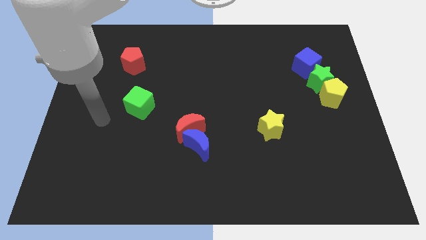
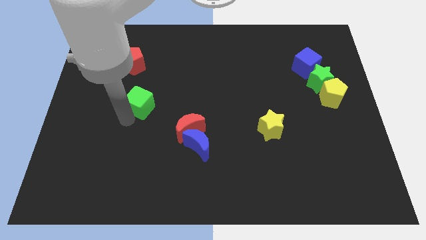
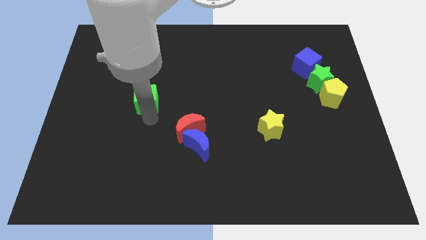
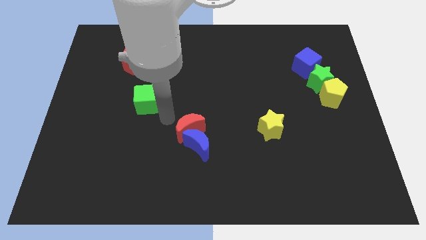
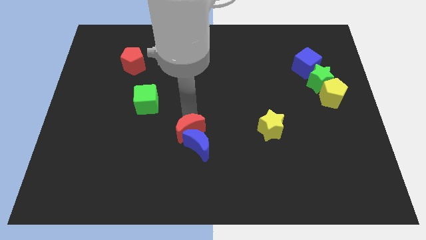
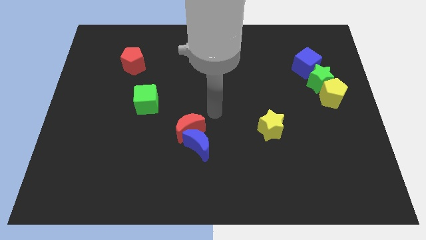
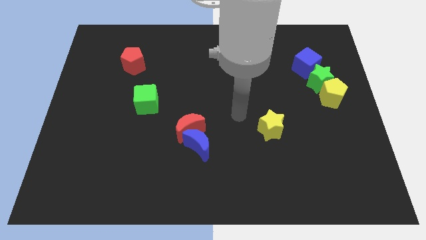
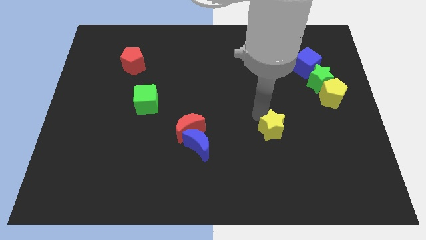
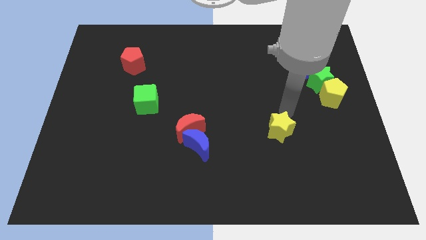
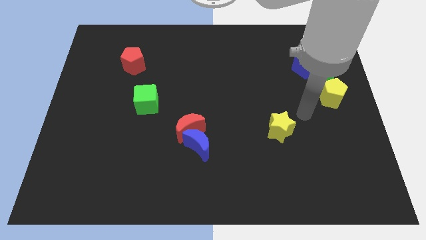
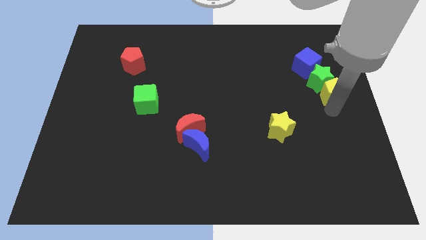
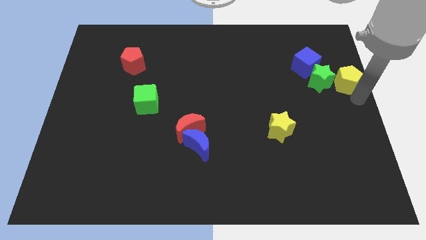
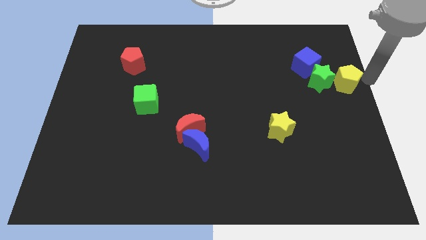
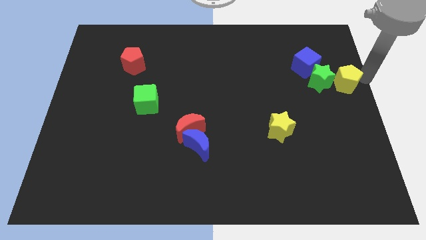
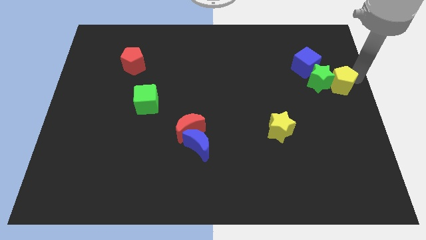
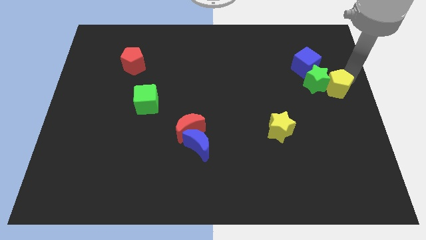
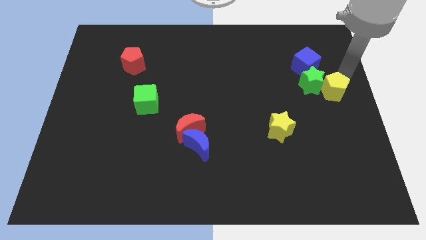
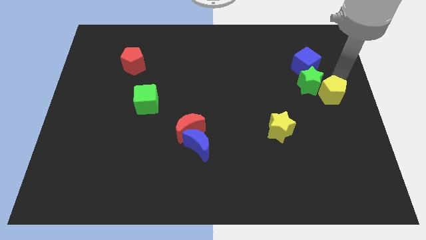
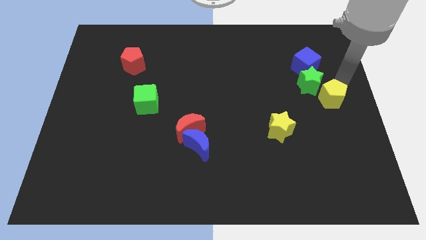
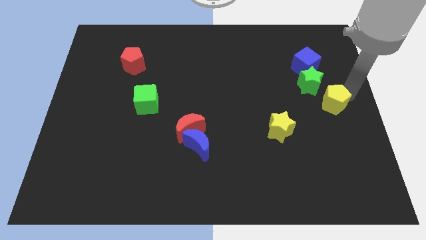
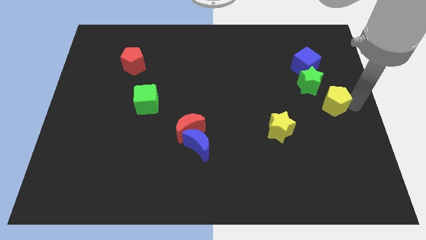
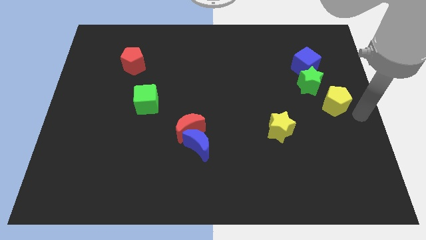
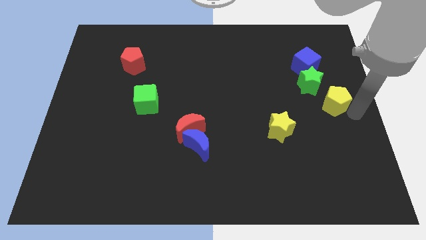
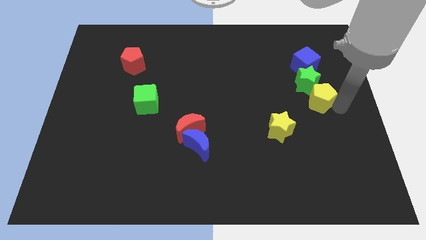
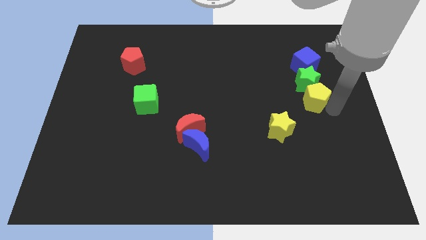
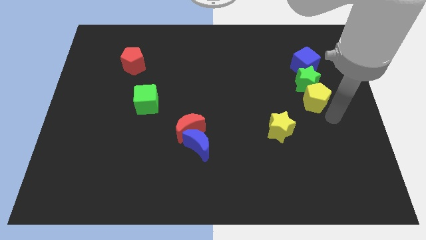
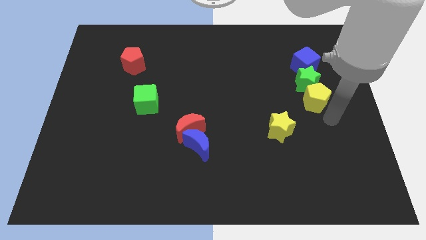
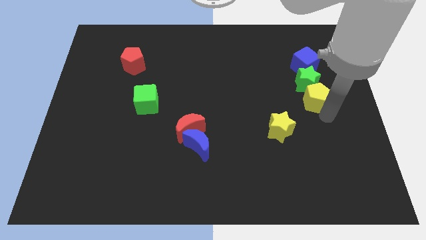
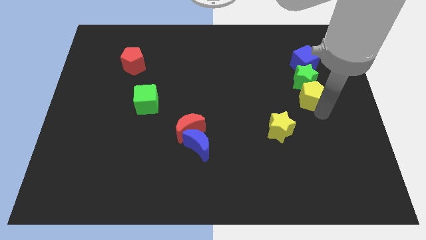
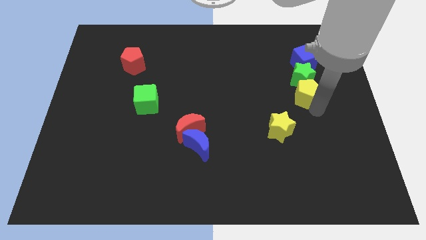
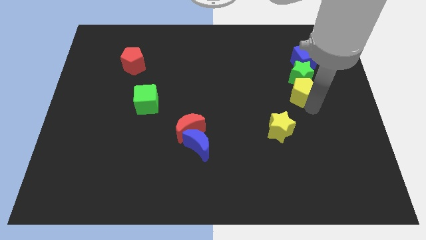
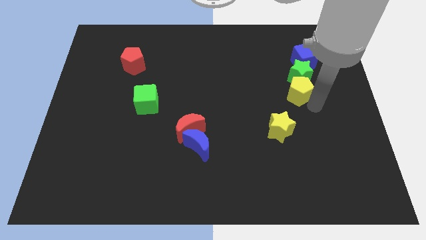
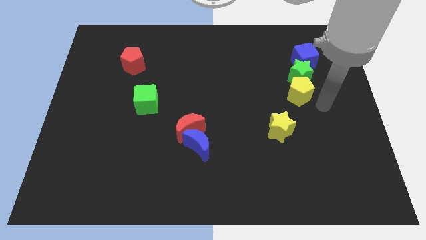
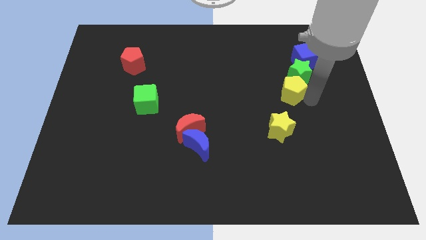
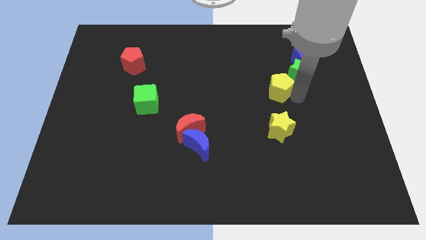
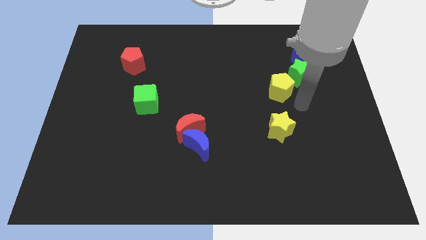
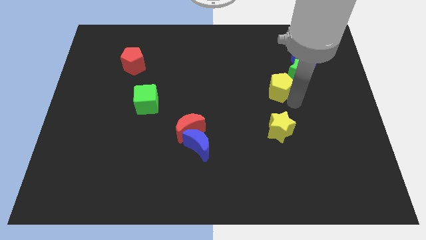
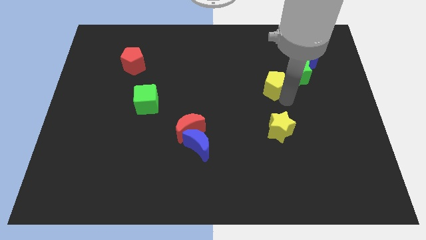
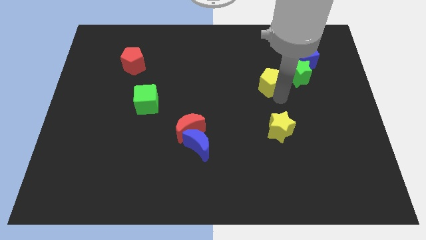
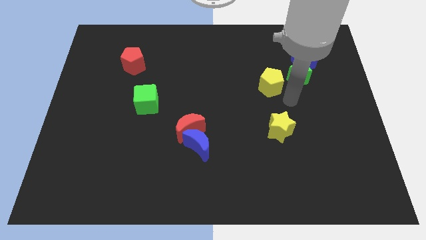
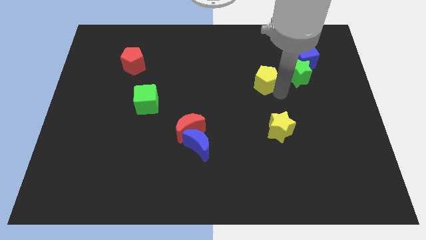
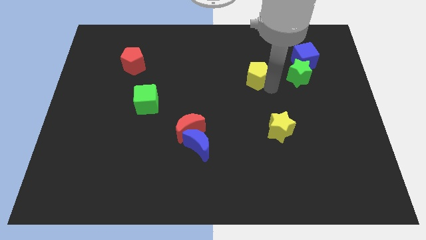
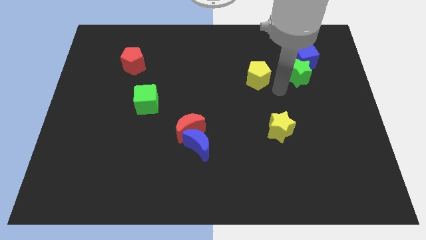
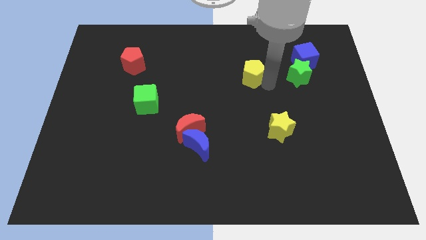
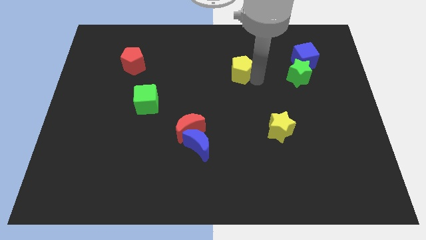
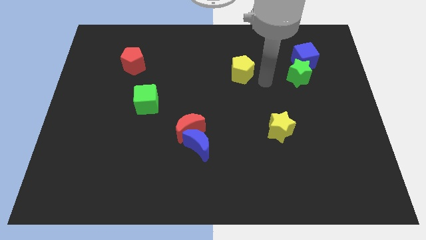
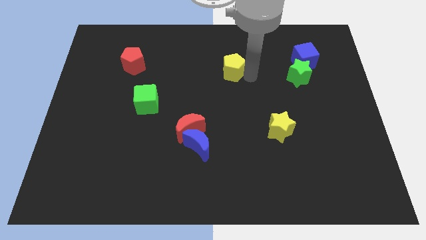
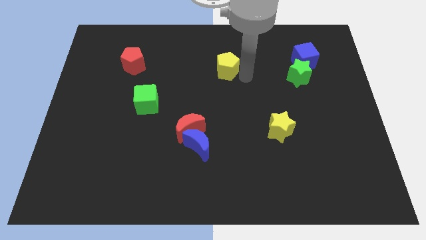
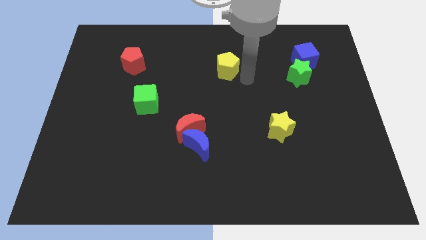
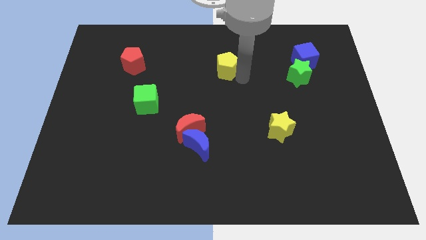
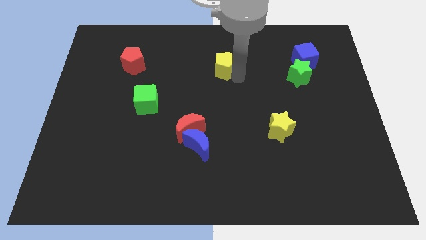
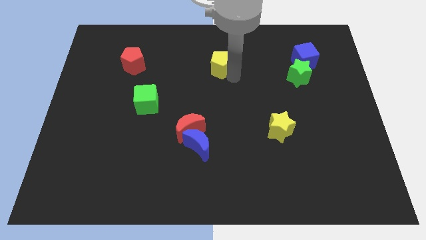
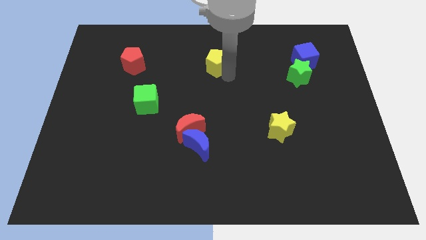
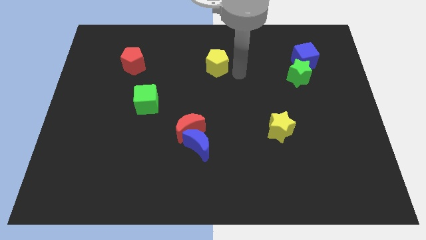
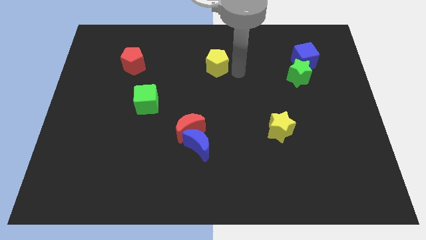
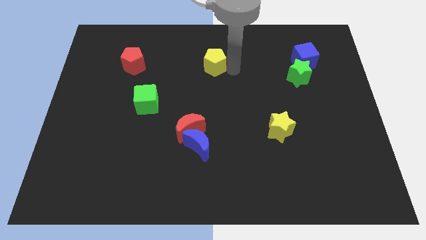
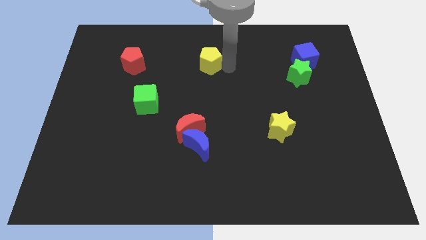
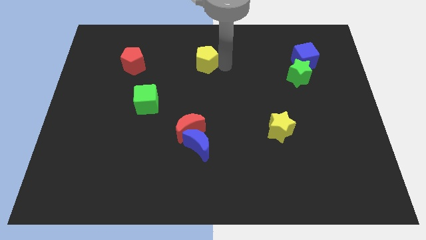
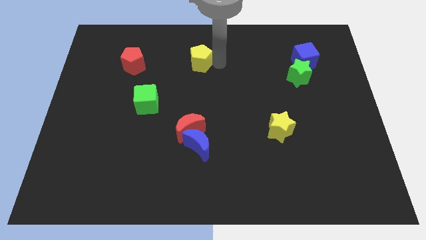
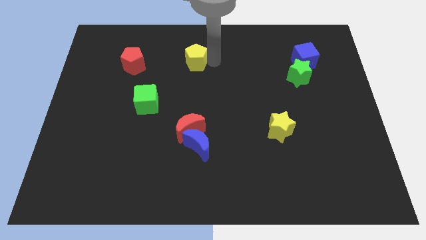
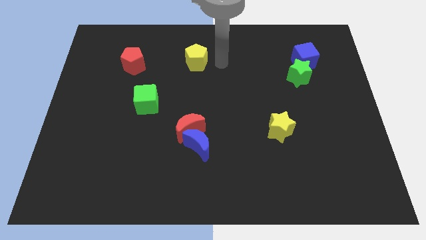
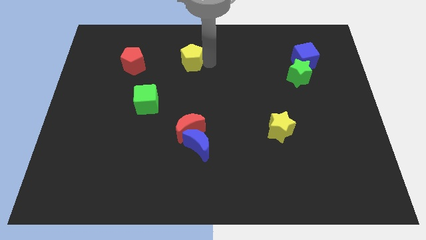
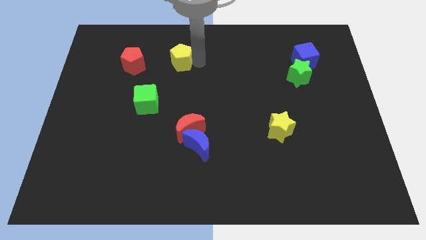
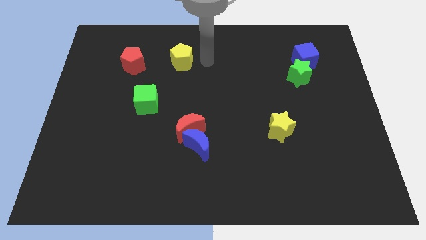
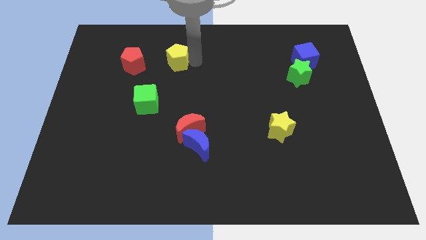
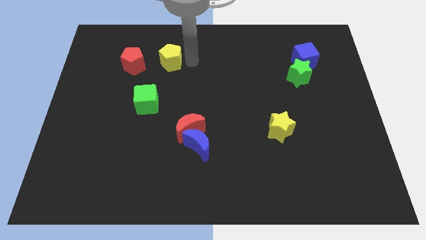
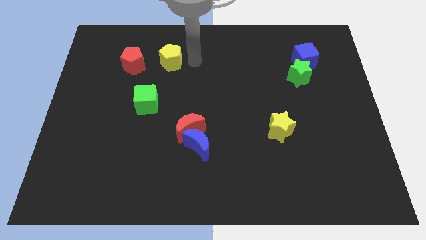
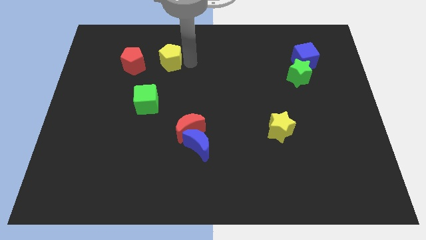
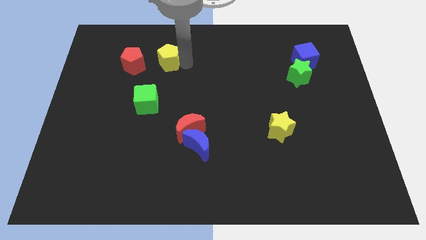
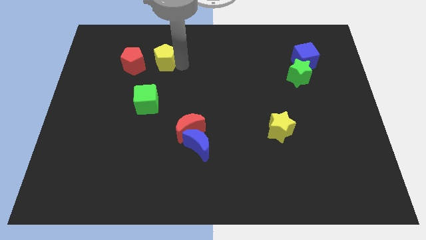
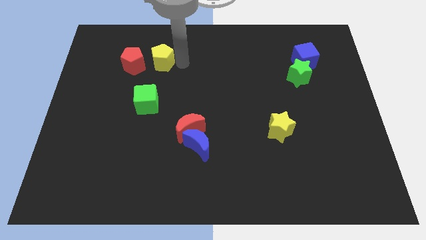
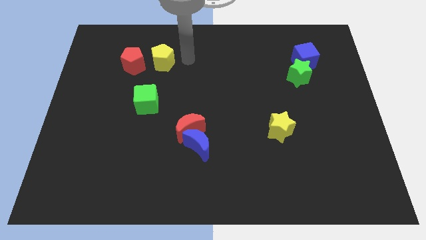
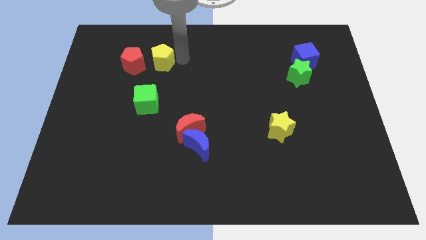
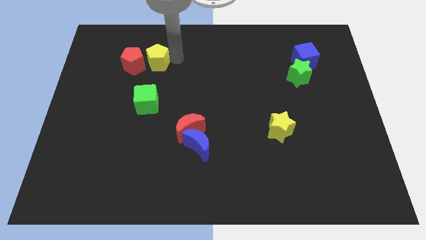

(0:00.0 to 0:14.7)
put the yellow pentagon towards the red pentagon
